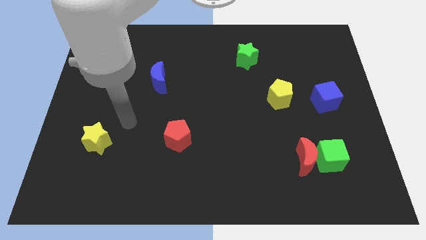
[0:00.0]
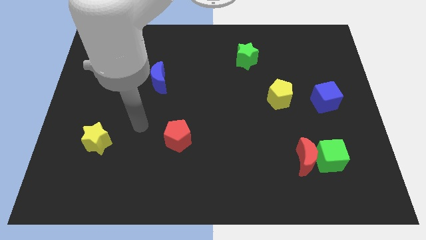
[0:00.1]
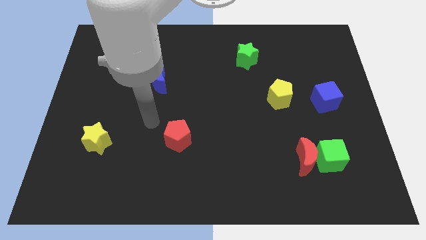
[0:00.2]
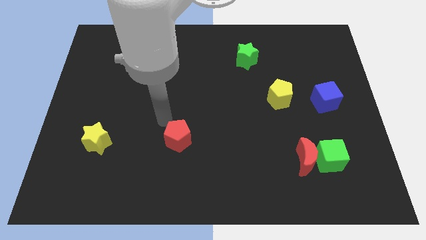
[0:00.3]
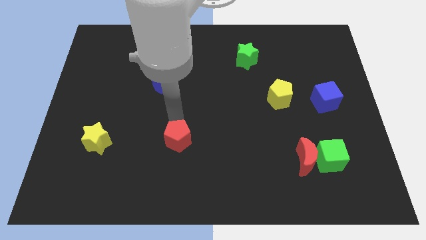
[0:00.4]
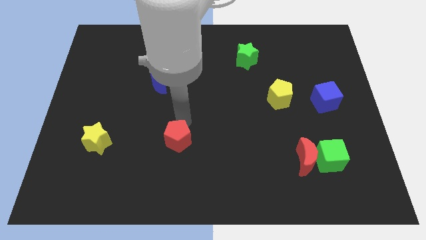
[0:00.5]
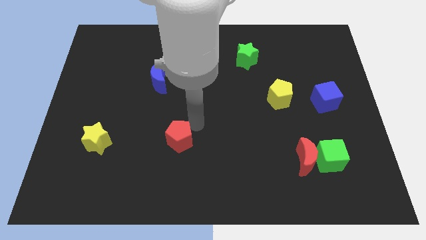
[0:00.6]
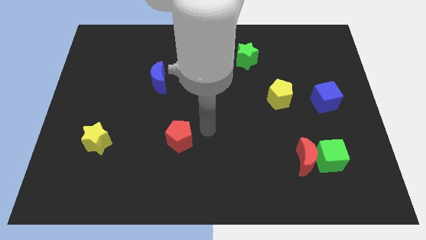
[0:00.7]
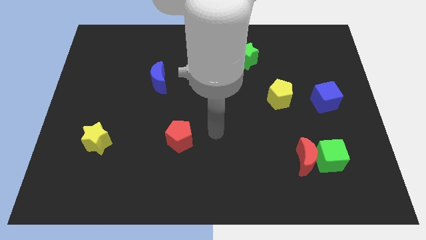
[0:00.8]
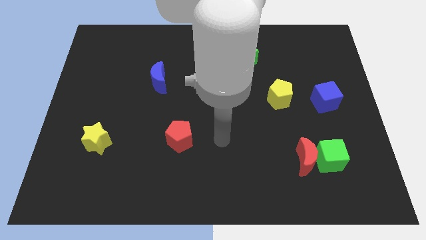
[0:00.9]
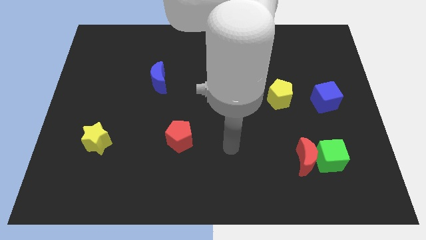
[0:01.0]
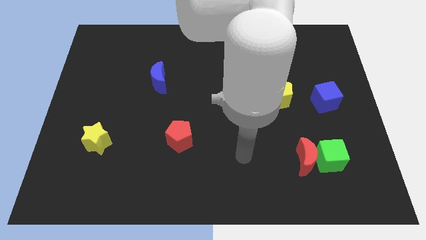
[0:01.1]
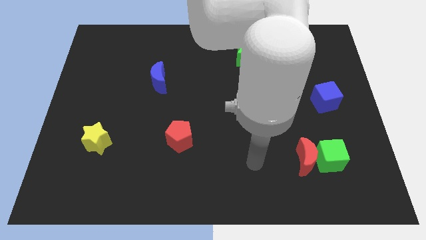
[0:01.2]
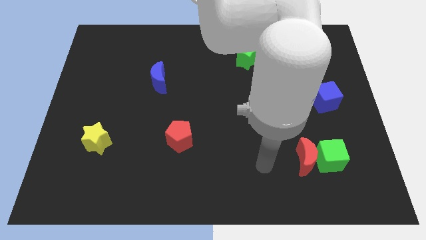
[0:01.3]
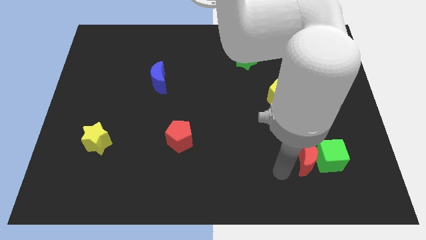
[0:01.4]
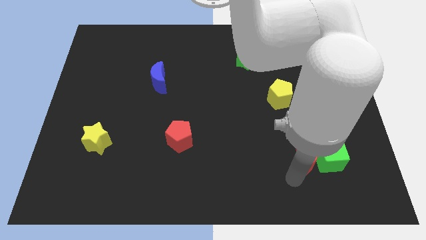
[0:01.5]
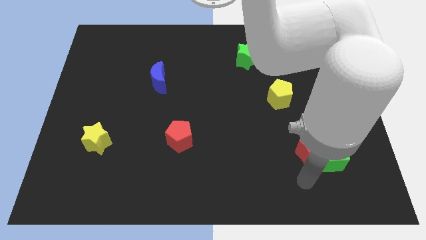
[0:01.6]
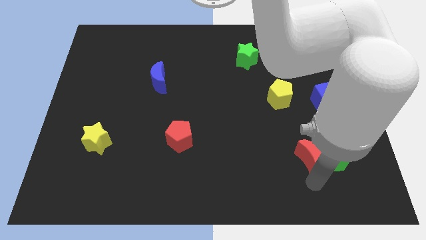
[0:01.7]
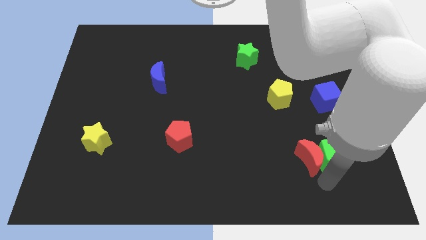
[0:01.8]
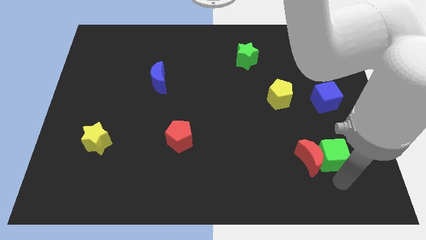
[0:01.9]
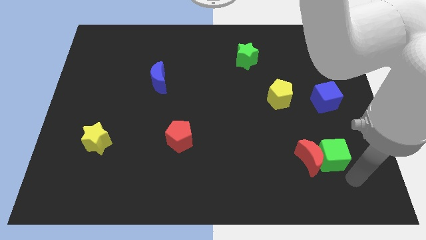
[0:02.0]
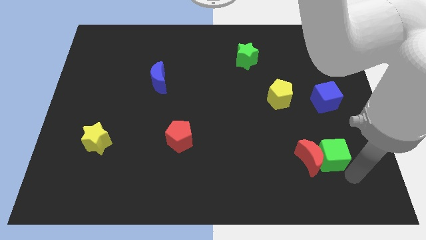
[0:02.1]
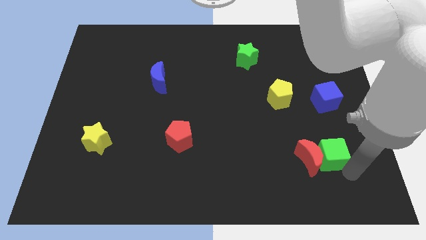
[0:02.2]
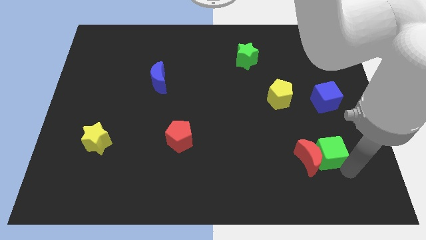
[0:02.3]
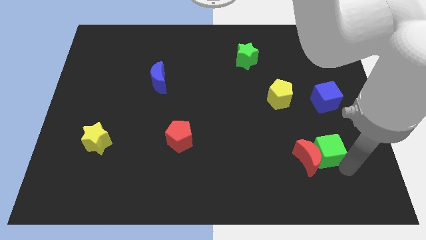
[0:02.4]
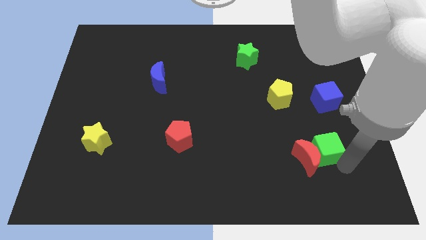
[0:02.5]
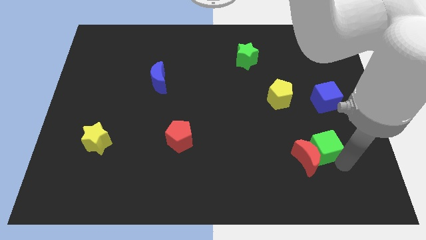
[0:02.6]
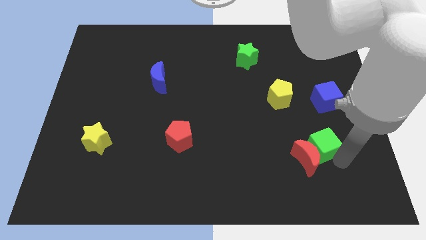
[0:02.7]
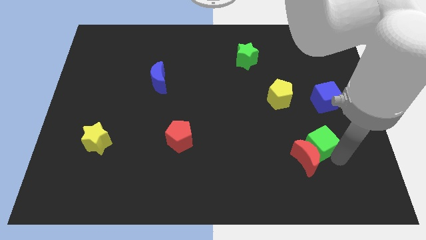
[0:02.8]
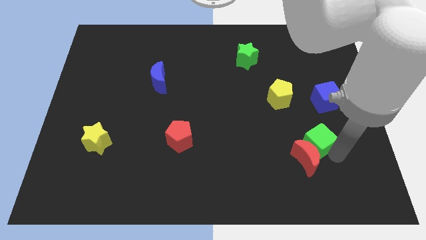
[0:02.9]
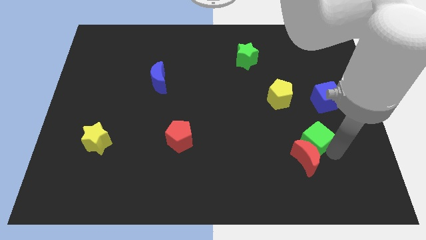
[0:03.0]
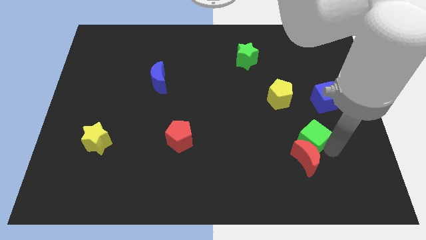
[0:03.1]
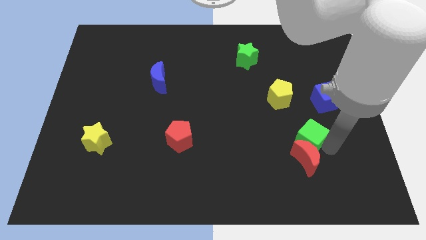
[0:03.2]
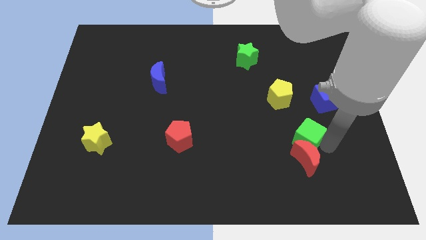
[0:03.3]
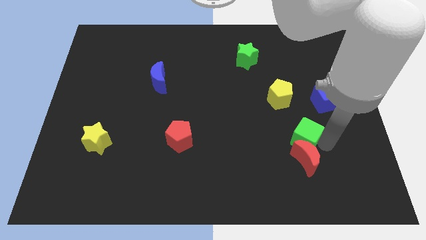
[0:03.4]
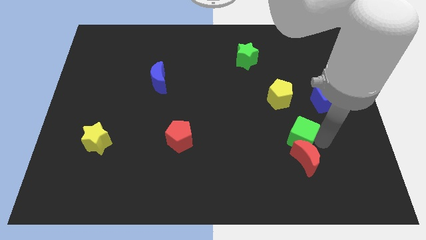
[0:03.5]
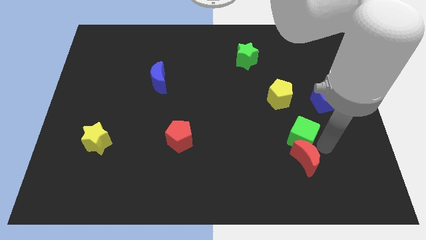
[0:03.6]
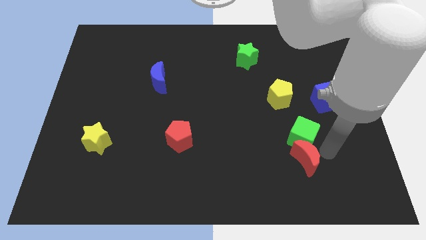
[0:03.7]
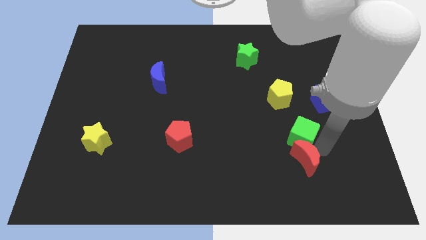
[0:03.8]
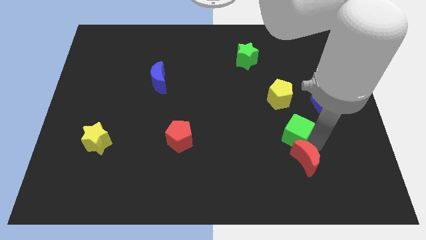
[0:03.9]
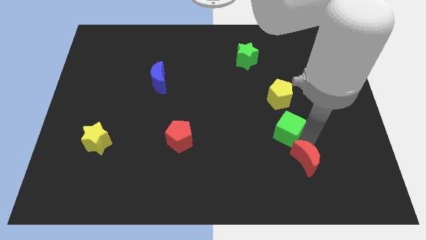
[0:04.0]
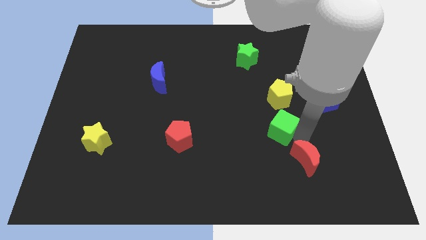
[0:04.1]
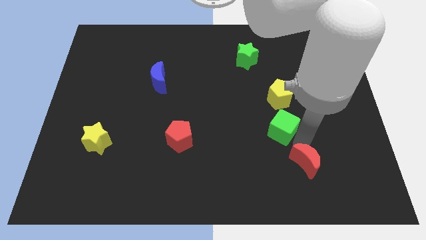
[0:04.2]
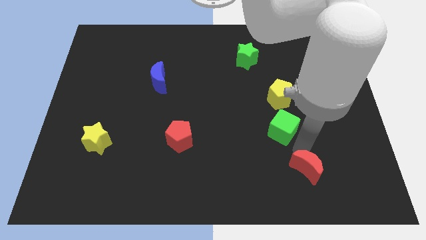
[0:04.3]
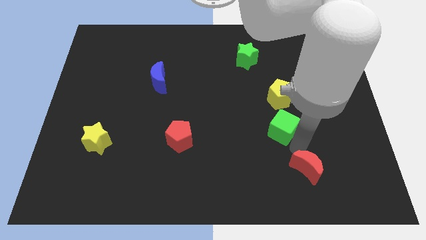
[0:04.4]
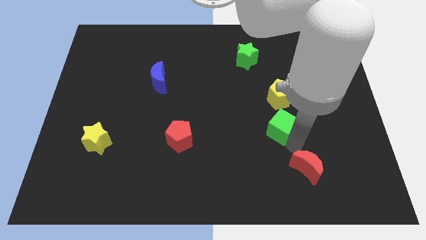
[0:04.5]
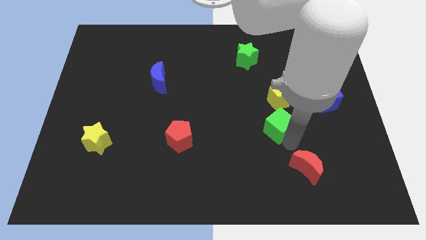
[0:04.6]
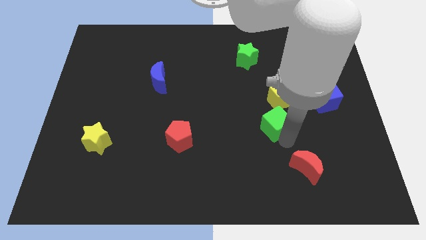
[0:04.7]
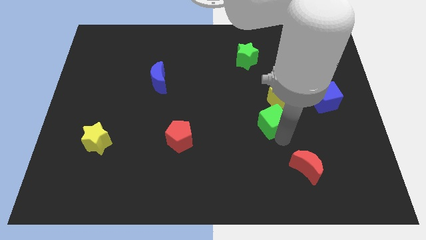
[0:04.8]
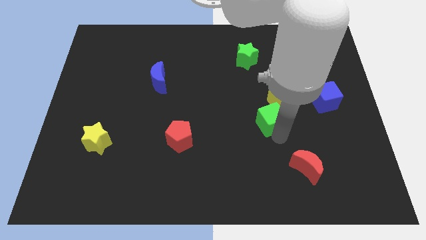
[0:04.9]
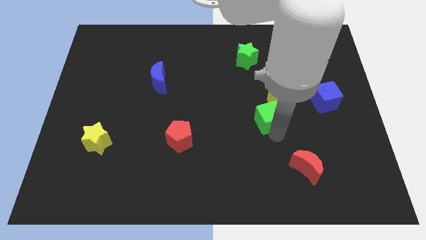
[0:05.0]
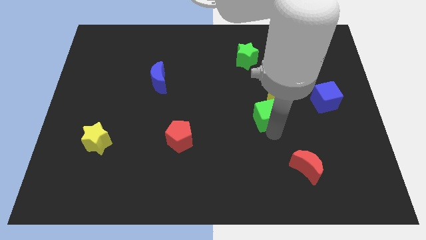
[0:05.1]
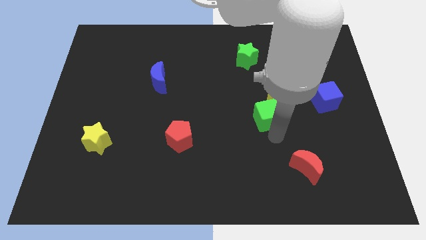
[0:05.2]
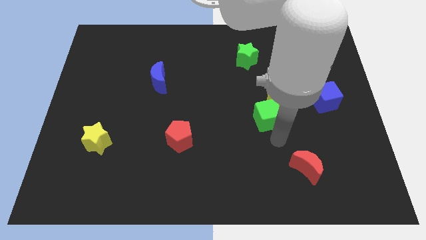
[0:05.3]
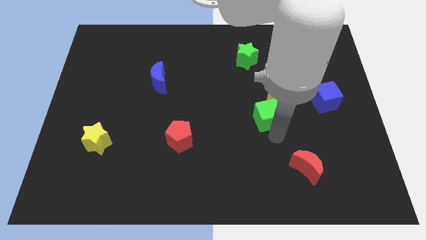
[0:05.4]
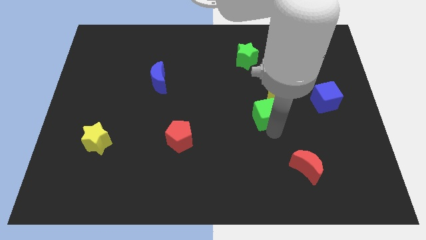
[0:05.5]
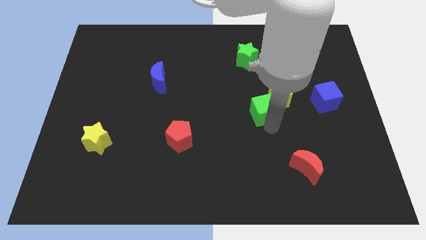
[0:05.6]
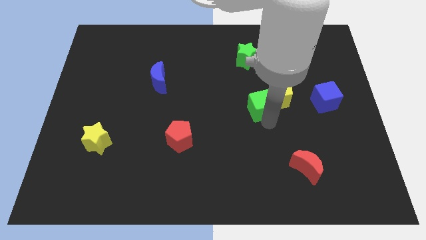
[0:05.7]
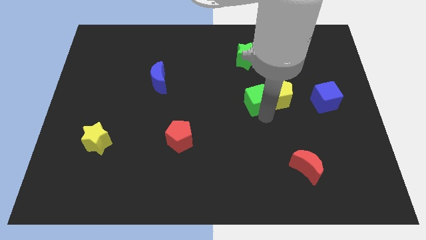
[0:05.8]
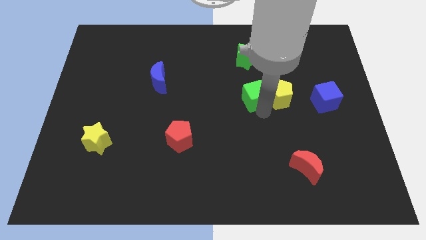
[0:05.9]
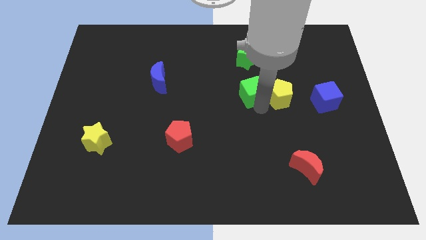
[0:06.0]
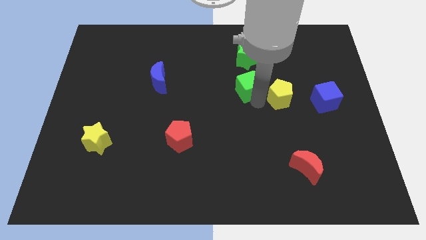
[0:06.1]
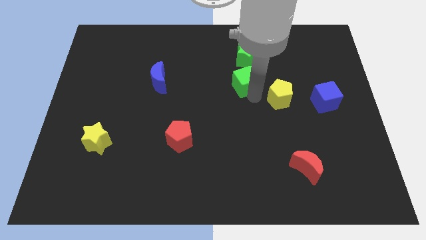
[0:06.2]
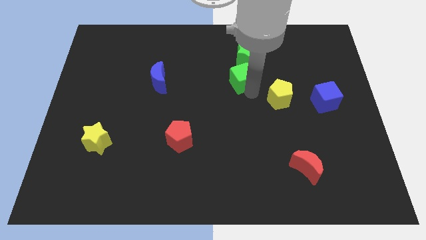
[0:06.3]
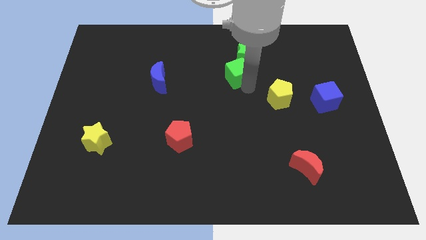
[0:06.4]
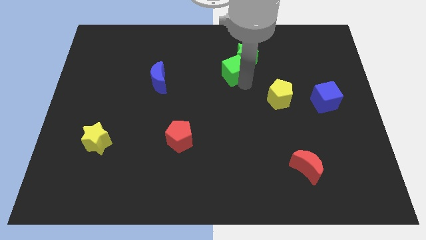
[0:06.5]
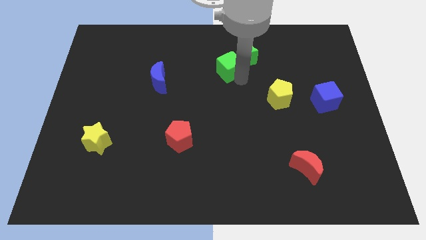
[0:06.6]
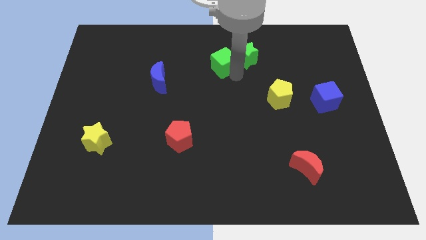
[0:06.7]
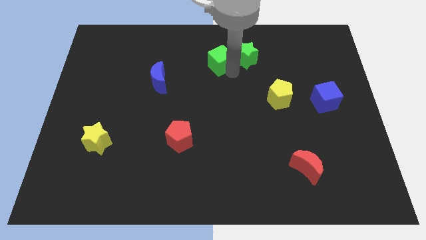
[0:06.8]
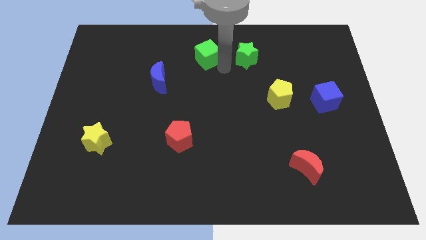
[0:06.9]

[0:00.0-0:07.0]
push the green cube to the towards your base
